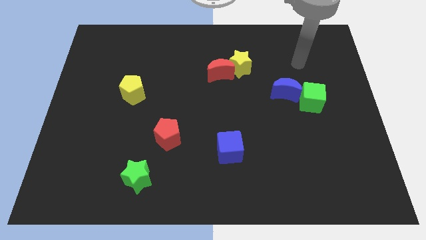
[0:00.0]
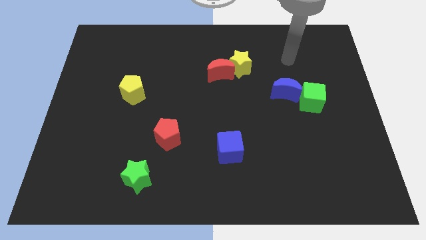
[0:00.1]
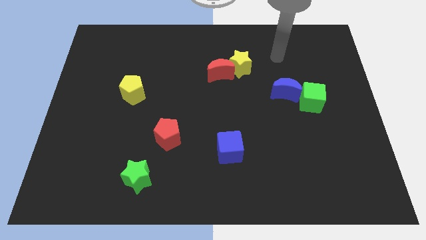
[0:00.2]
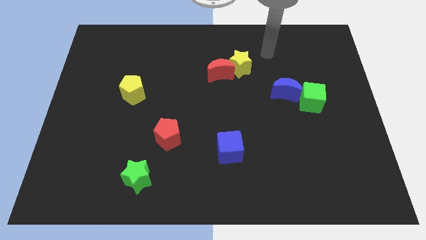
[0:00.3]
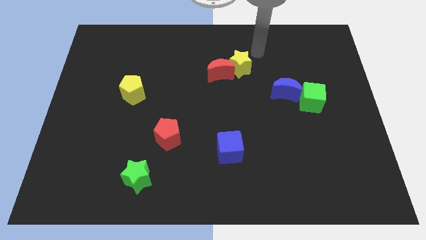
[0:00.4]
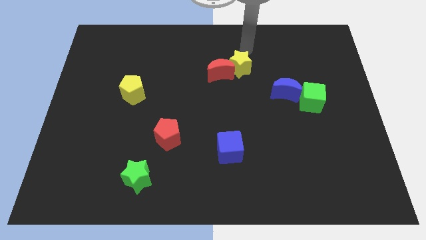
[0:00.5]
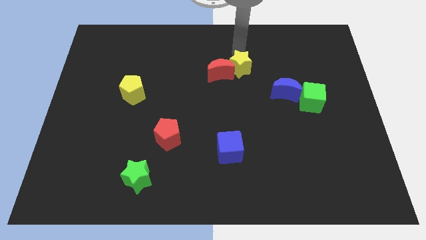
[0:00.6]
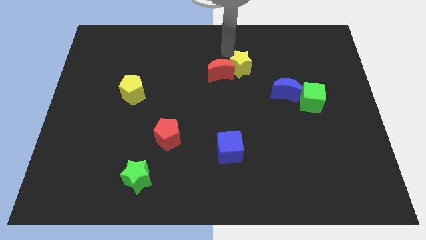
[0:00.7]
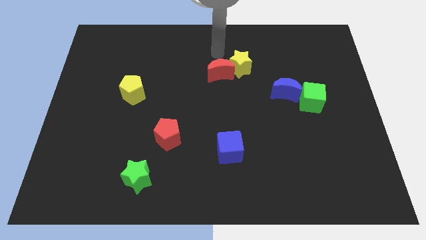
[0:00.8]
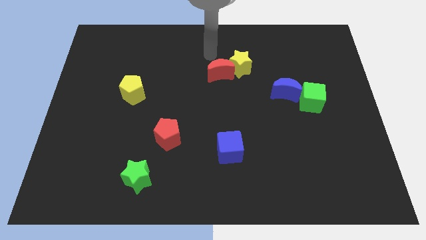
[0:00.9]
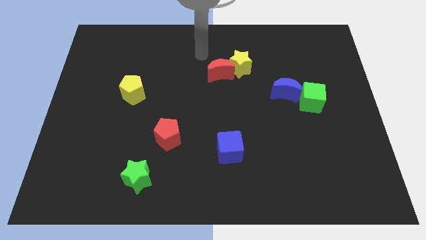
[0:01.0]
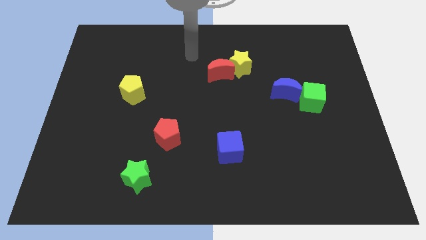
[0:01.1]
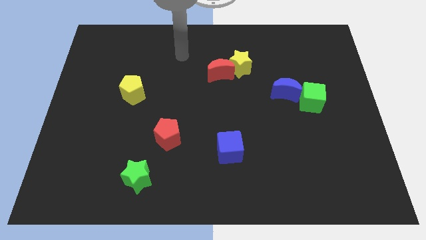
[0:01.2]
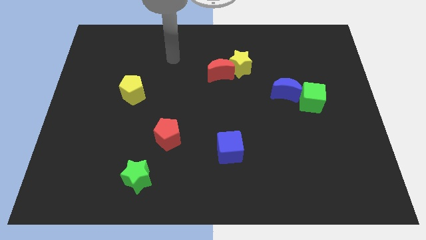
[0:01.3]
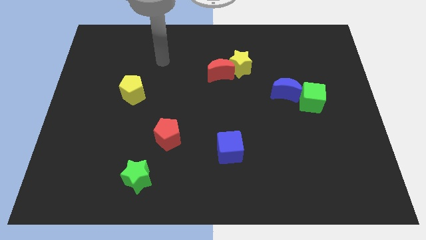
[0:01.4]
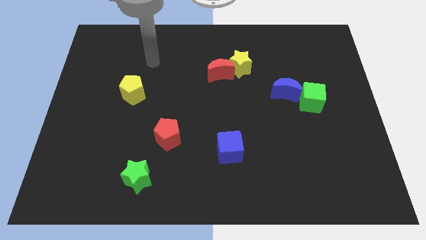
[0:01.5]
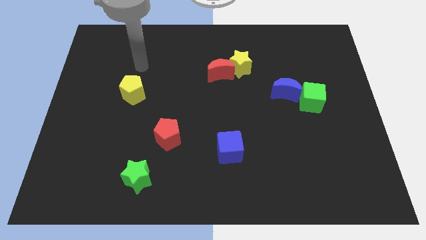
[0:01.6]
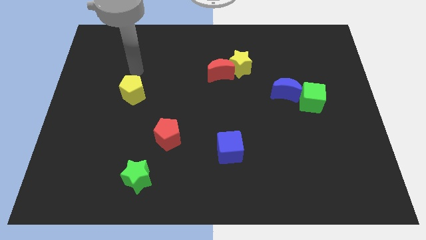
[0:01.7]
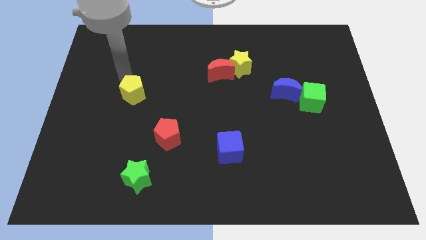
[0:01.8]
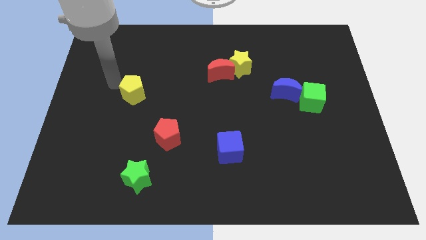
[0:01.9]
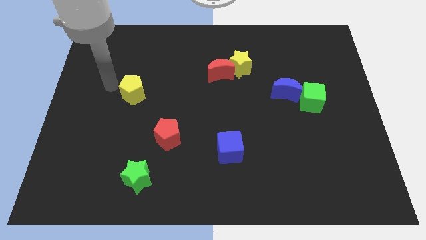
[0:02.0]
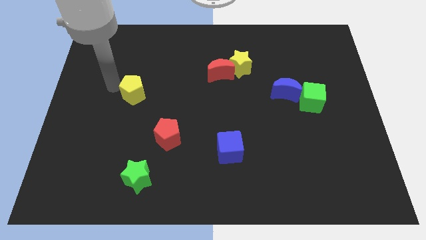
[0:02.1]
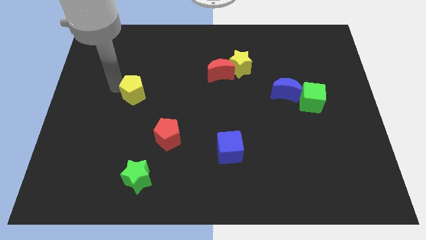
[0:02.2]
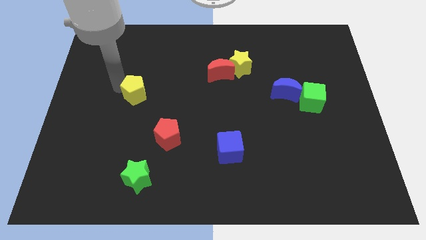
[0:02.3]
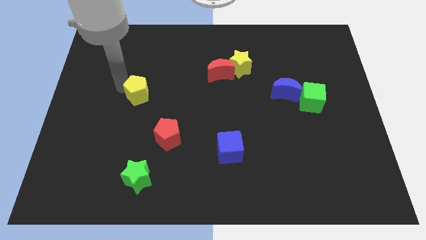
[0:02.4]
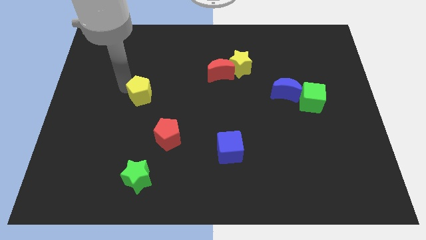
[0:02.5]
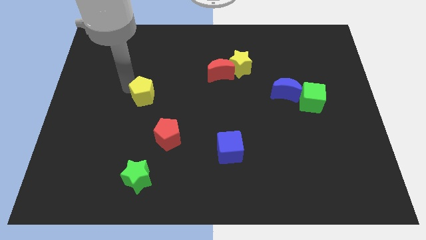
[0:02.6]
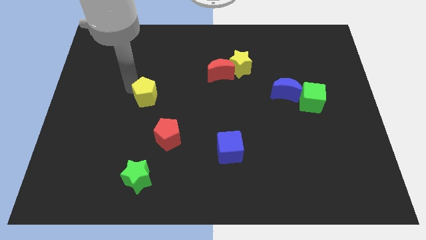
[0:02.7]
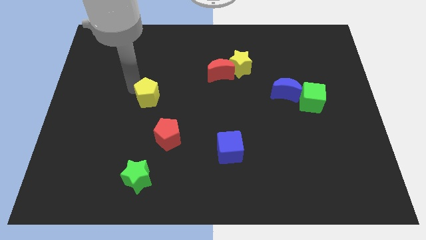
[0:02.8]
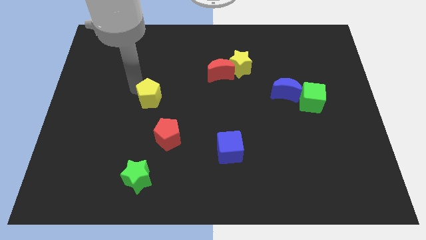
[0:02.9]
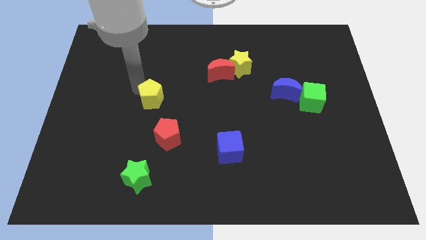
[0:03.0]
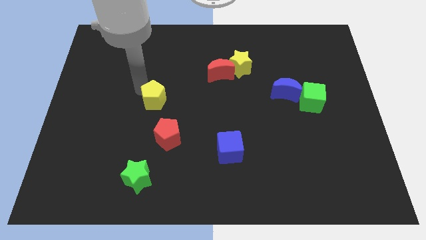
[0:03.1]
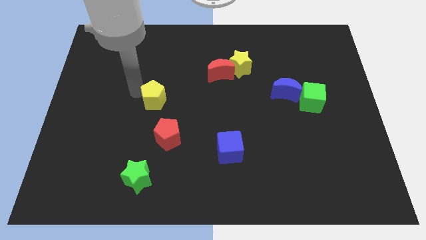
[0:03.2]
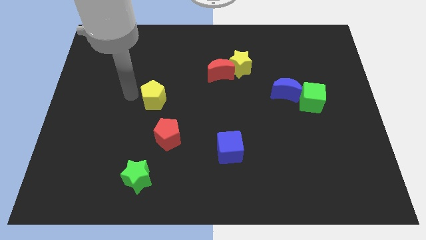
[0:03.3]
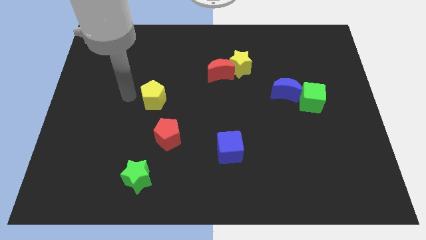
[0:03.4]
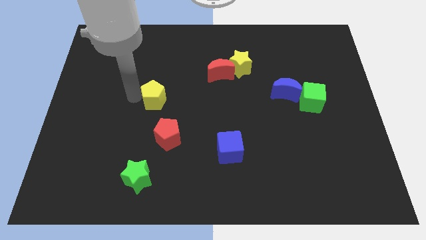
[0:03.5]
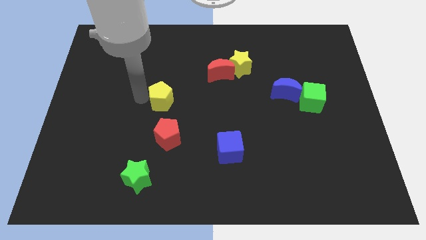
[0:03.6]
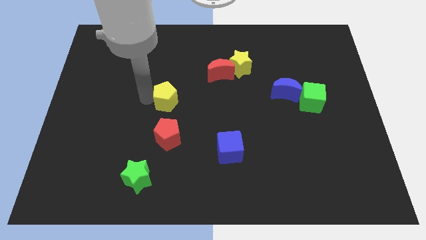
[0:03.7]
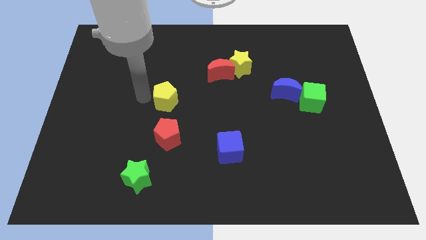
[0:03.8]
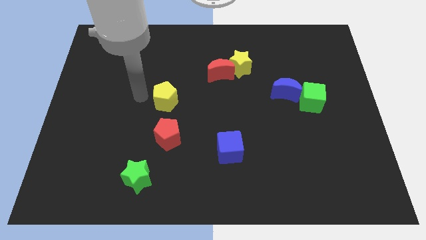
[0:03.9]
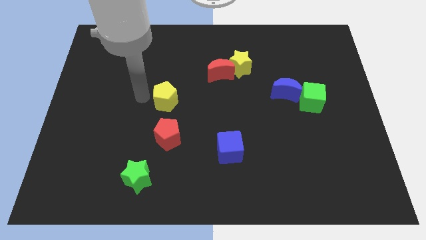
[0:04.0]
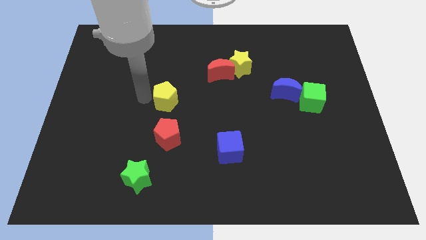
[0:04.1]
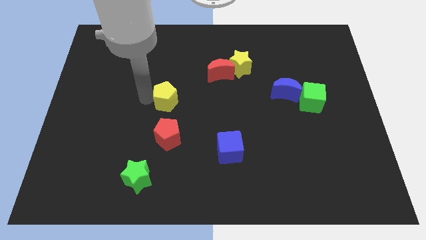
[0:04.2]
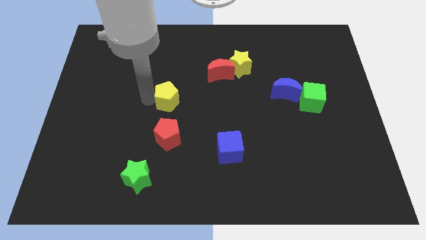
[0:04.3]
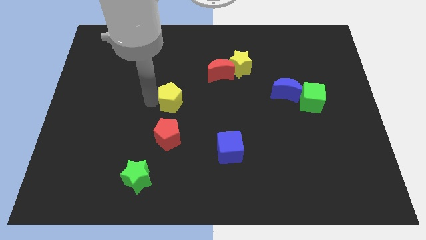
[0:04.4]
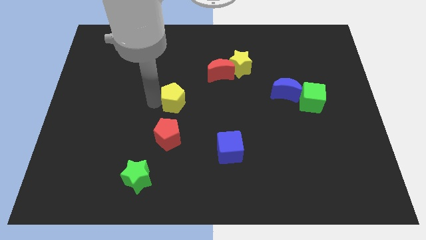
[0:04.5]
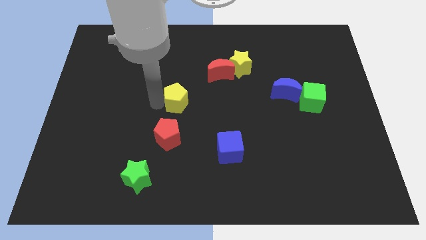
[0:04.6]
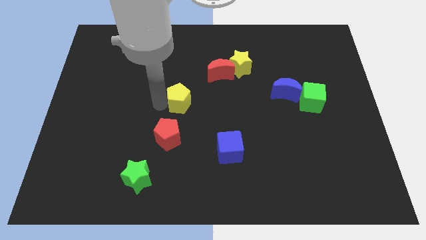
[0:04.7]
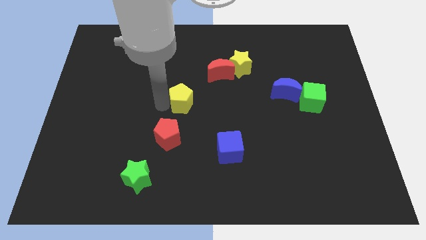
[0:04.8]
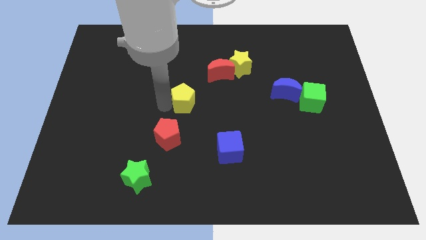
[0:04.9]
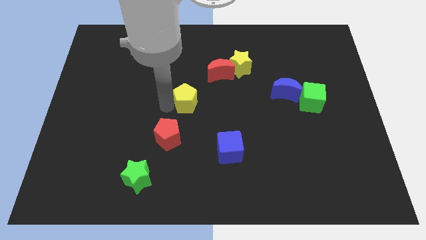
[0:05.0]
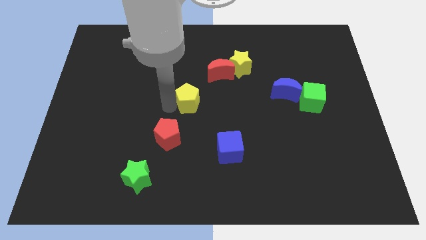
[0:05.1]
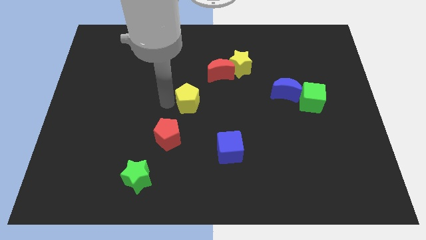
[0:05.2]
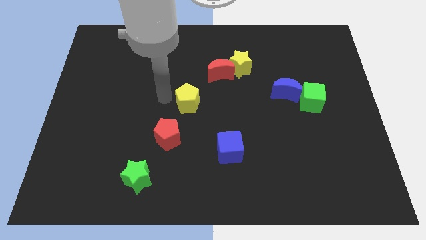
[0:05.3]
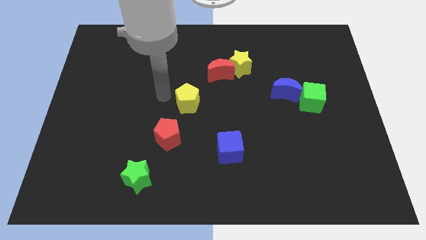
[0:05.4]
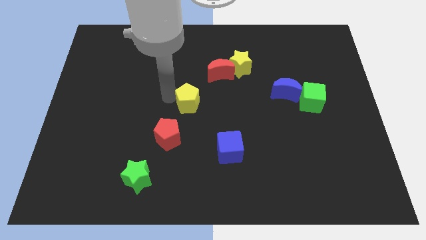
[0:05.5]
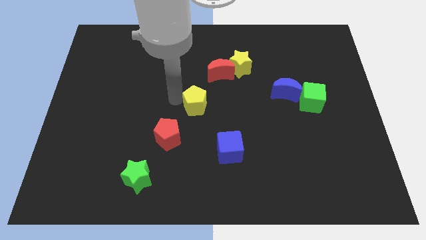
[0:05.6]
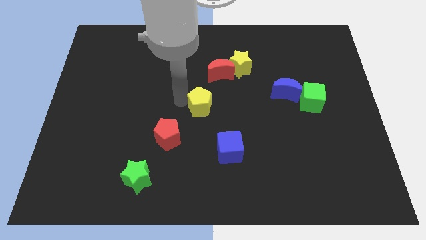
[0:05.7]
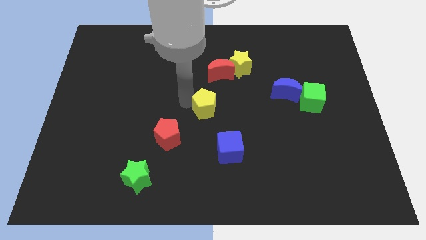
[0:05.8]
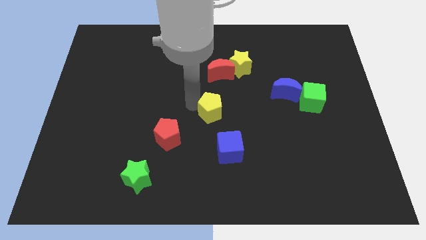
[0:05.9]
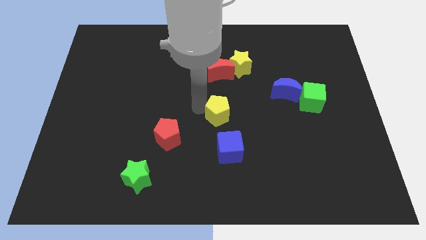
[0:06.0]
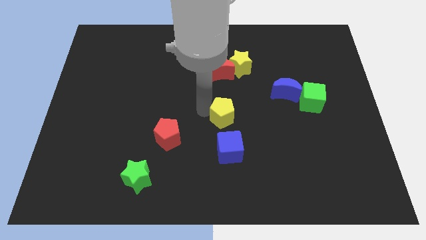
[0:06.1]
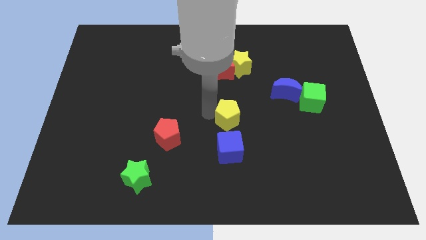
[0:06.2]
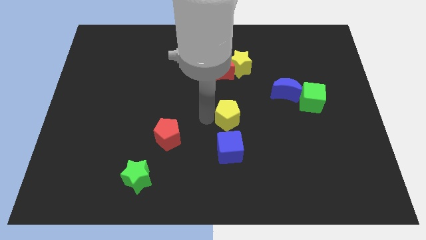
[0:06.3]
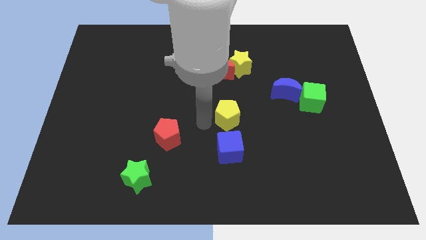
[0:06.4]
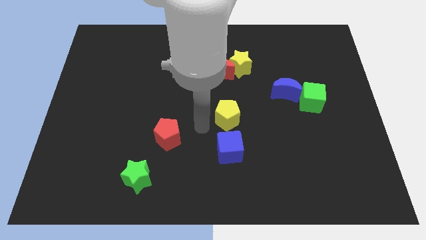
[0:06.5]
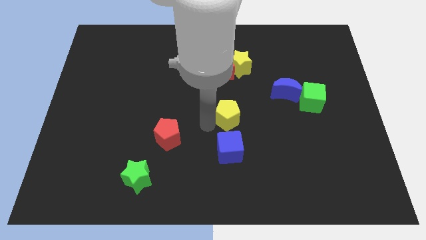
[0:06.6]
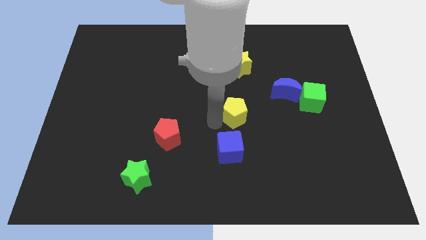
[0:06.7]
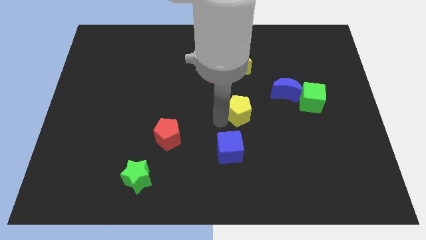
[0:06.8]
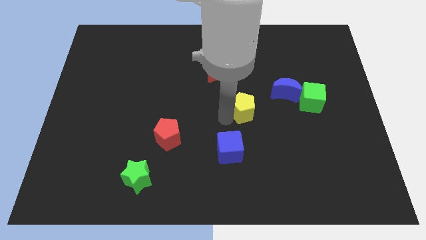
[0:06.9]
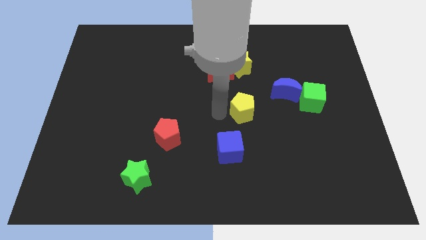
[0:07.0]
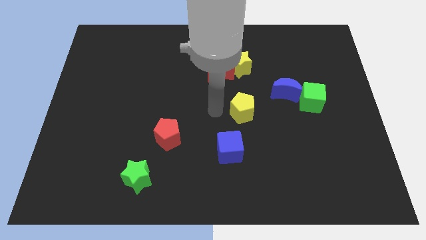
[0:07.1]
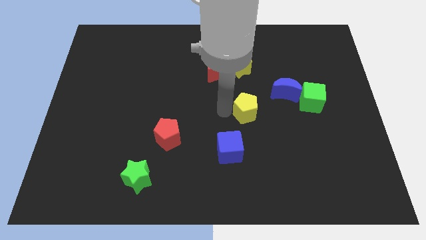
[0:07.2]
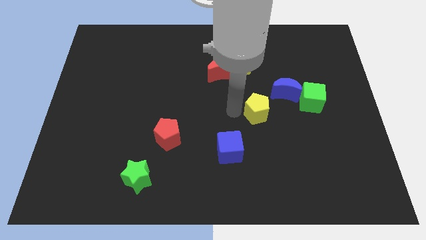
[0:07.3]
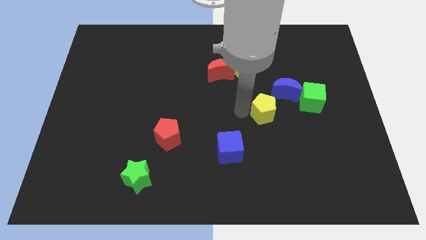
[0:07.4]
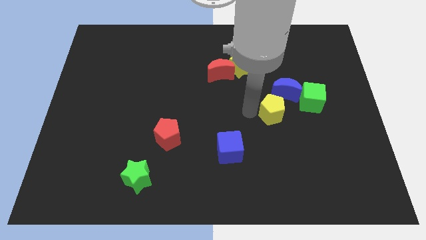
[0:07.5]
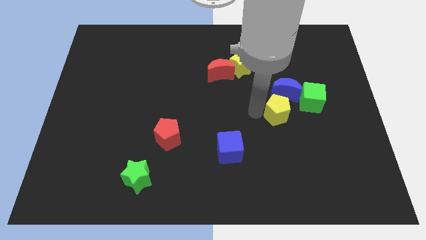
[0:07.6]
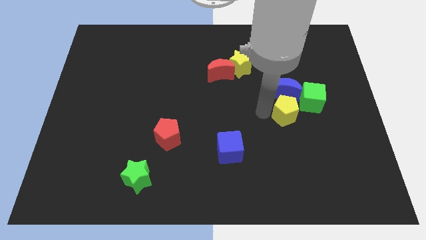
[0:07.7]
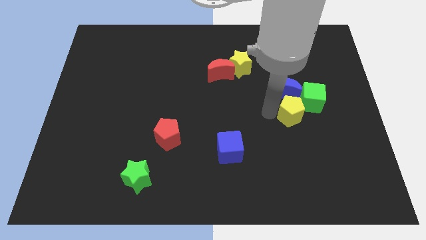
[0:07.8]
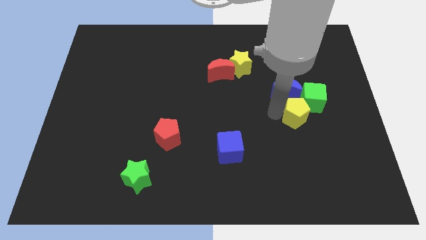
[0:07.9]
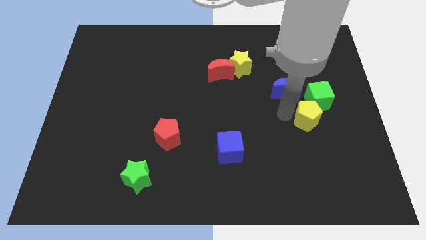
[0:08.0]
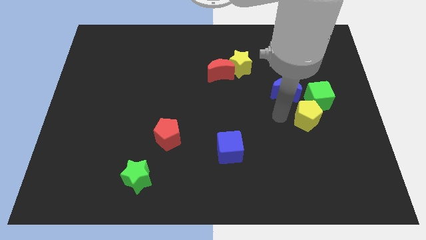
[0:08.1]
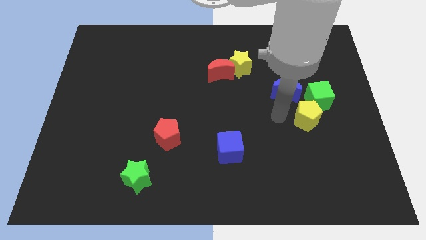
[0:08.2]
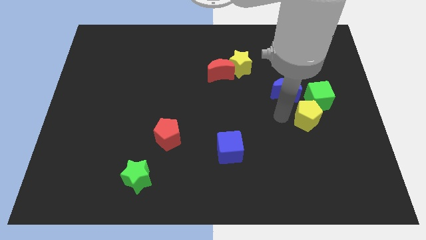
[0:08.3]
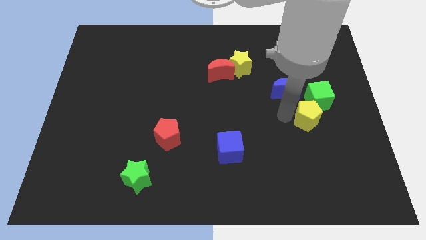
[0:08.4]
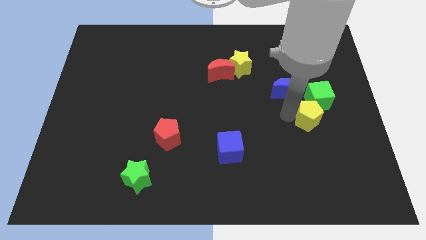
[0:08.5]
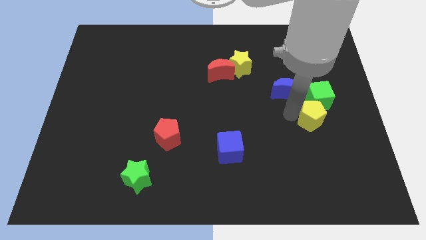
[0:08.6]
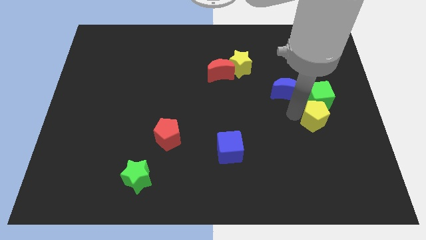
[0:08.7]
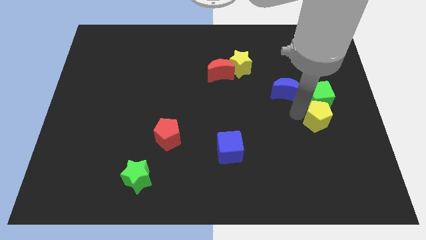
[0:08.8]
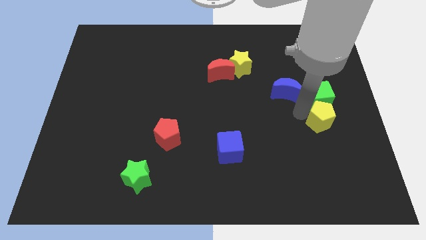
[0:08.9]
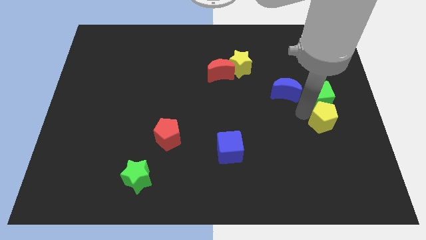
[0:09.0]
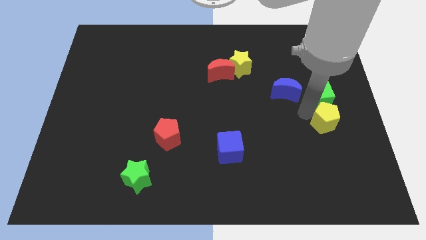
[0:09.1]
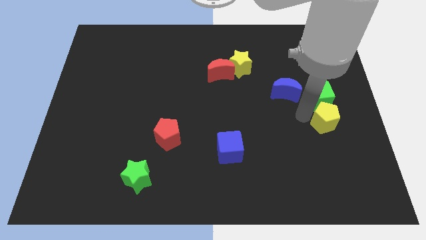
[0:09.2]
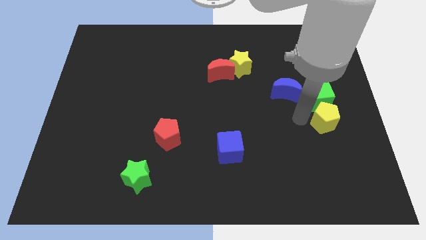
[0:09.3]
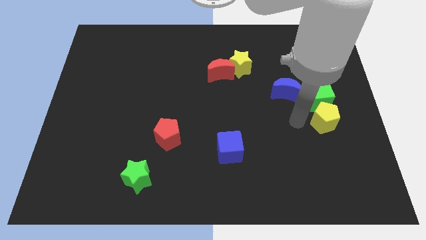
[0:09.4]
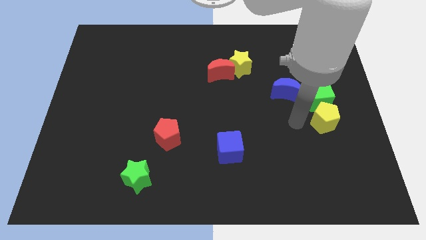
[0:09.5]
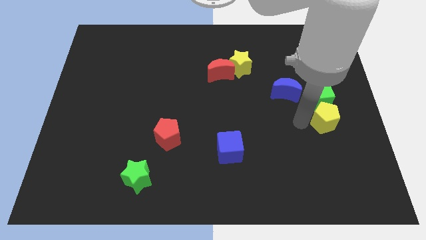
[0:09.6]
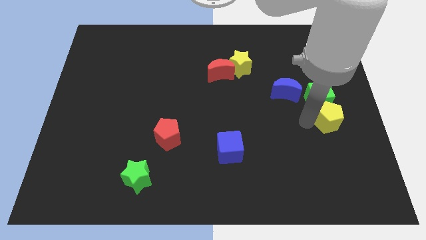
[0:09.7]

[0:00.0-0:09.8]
push the yellow pentagon to the right side
